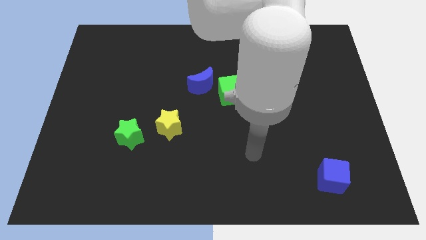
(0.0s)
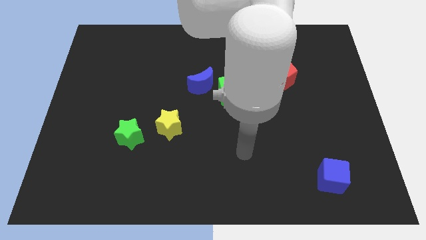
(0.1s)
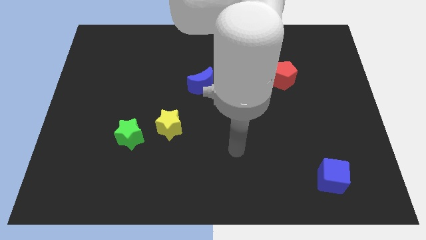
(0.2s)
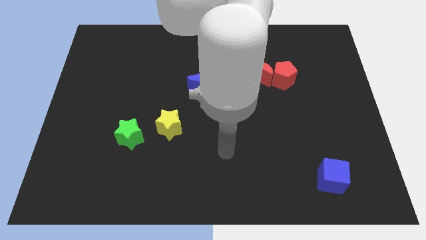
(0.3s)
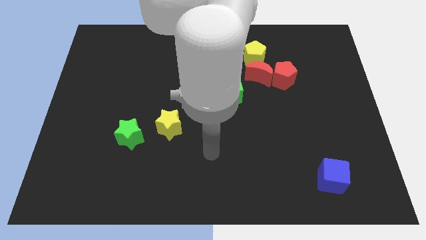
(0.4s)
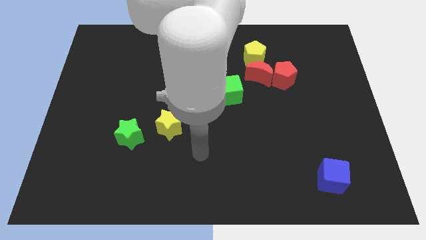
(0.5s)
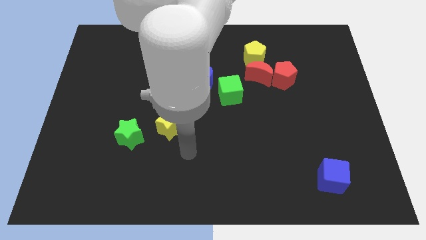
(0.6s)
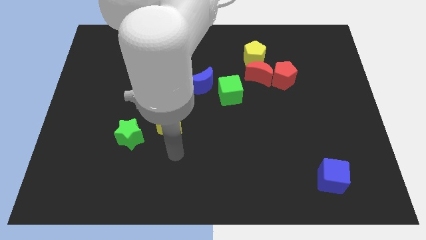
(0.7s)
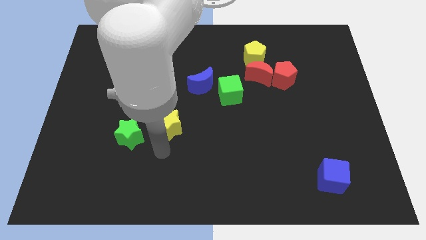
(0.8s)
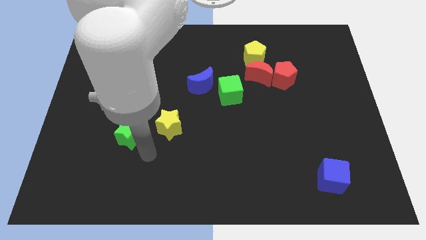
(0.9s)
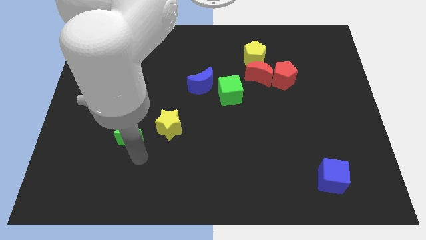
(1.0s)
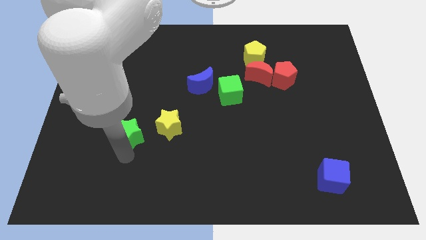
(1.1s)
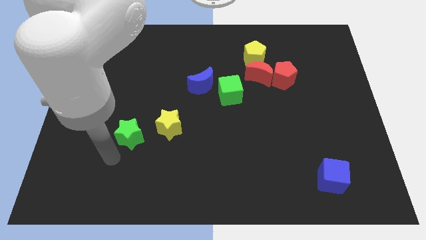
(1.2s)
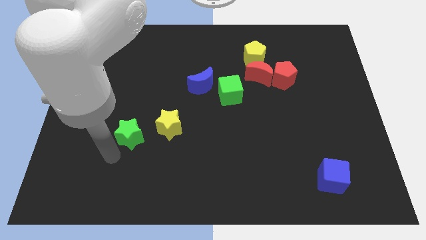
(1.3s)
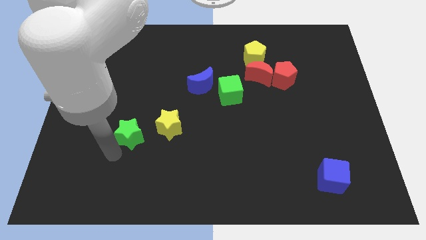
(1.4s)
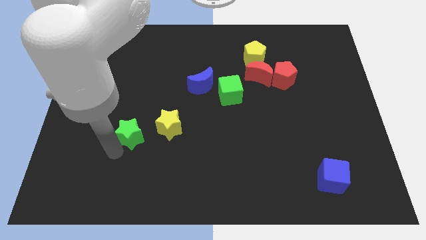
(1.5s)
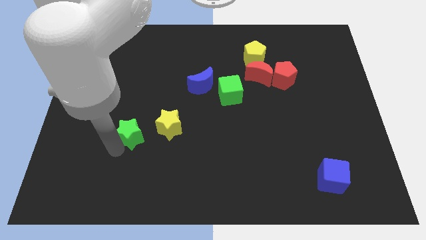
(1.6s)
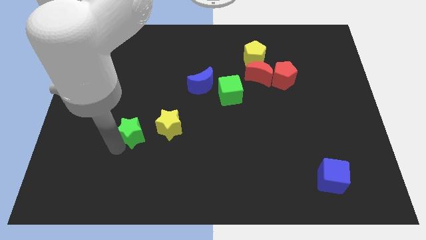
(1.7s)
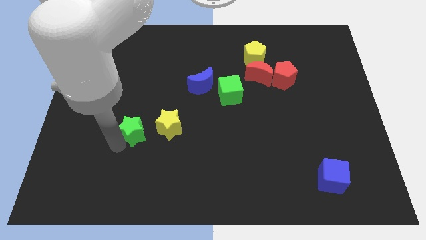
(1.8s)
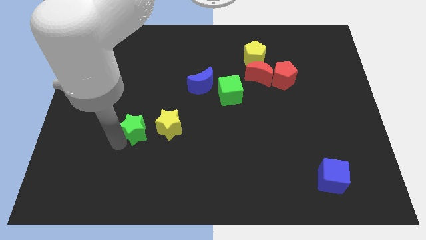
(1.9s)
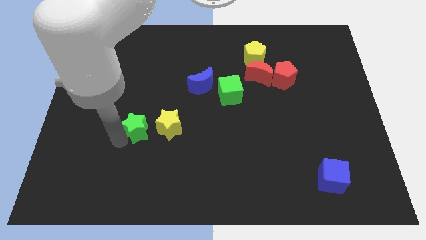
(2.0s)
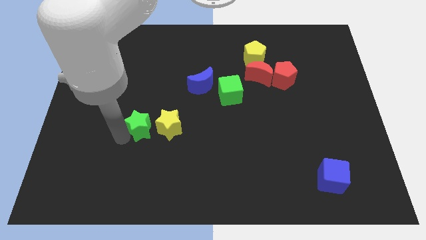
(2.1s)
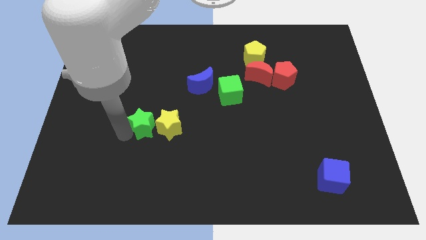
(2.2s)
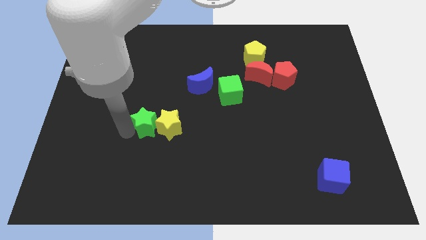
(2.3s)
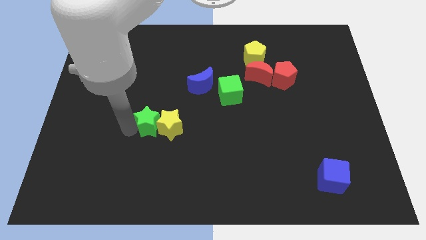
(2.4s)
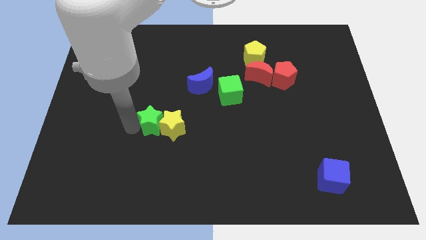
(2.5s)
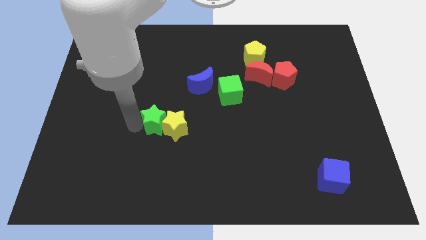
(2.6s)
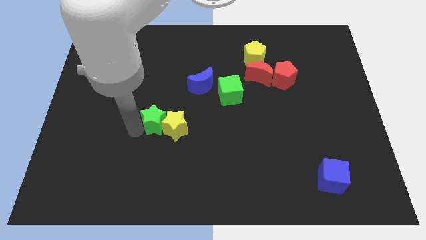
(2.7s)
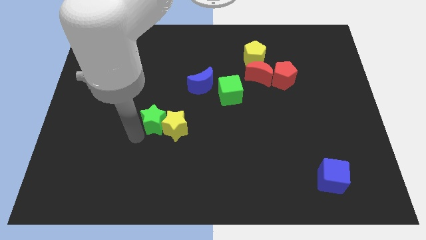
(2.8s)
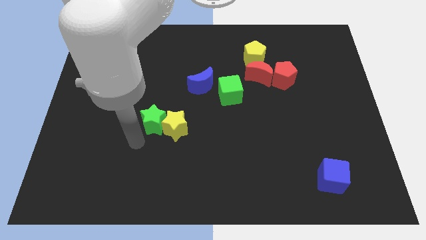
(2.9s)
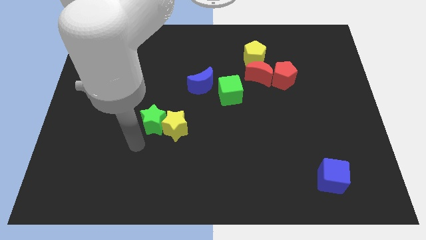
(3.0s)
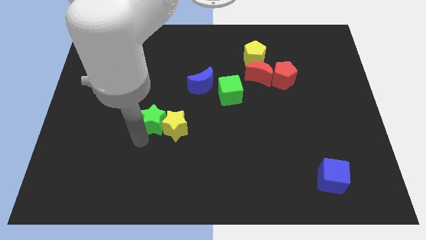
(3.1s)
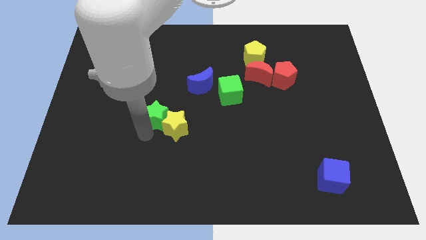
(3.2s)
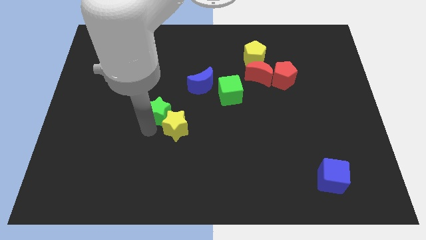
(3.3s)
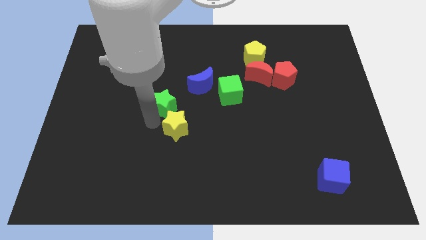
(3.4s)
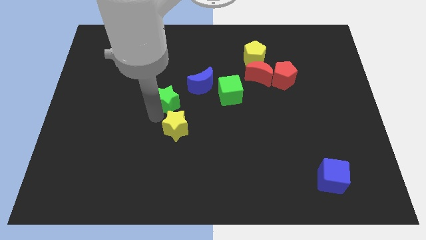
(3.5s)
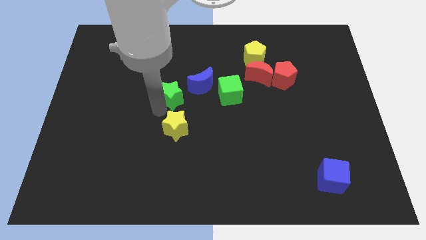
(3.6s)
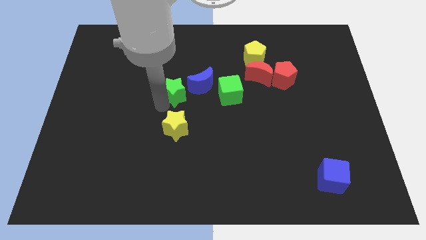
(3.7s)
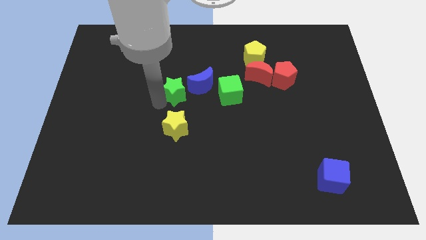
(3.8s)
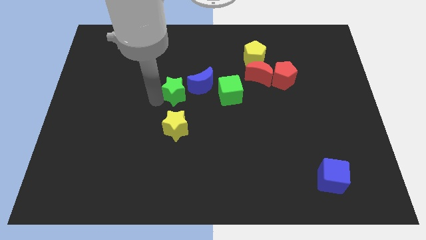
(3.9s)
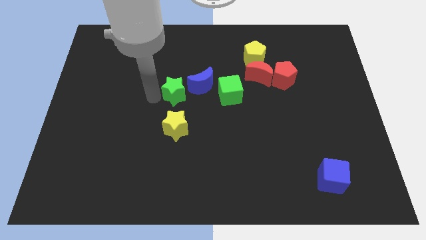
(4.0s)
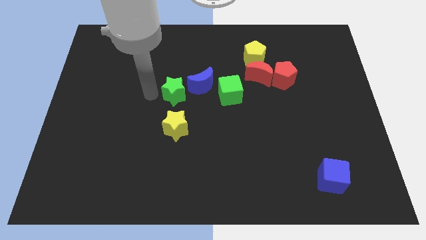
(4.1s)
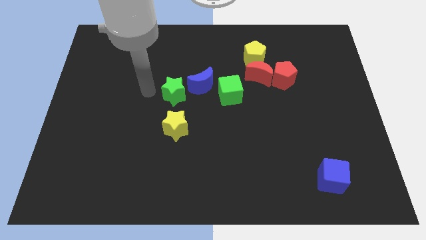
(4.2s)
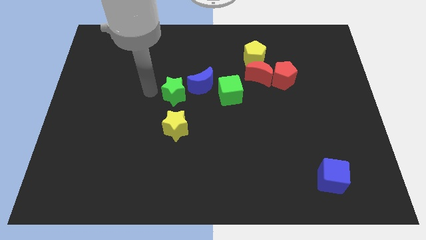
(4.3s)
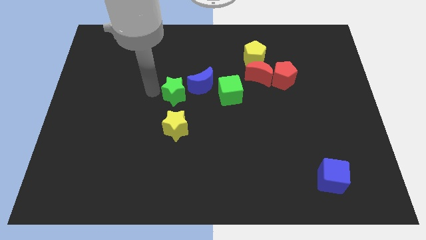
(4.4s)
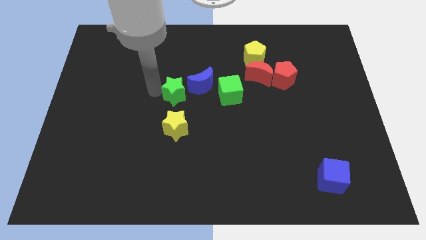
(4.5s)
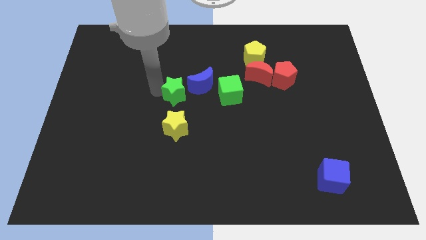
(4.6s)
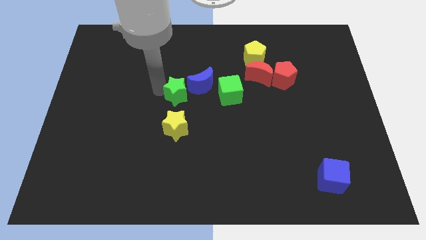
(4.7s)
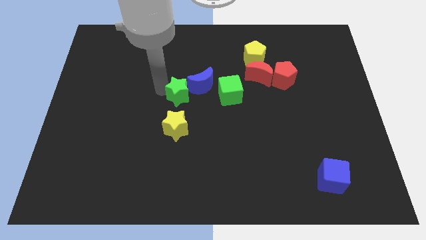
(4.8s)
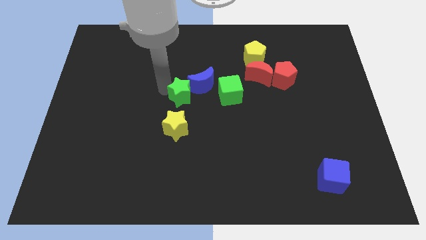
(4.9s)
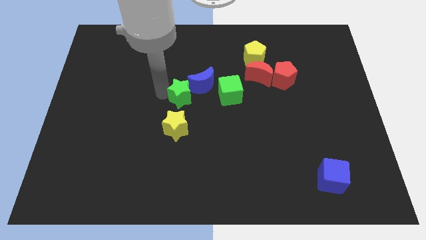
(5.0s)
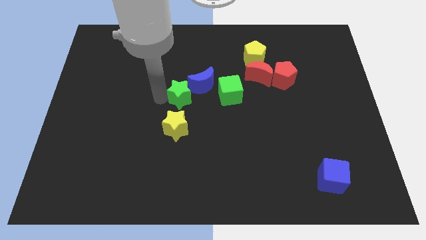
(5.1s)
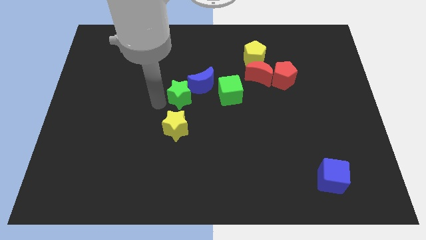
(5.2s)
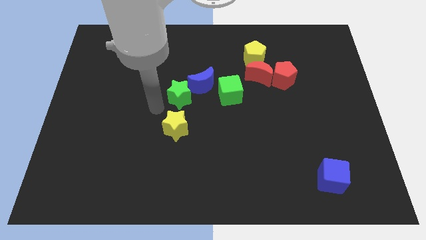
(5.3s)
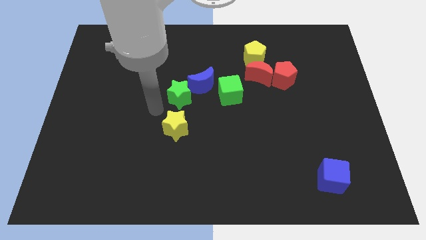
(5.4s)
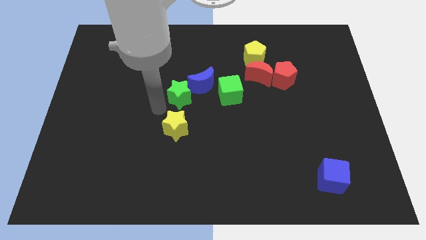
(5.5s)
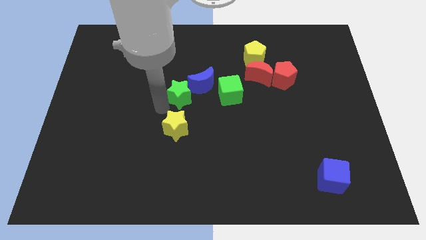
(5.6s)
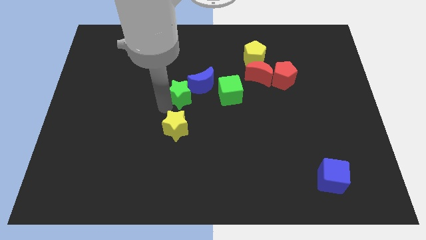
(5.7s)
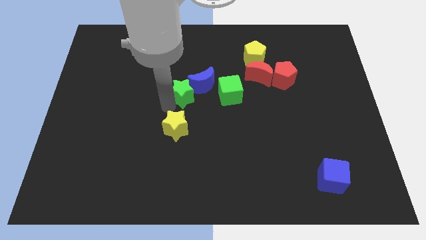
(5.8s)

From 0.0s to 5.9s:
put the green star to the blue moon

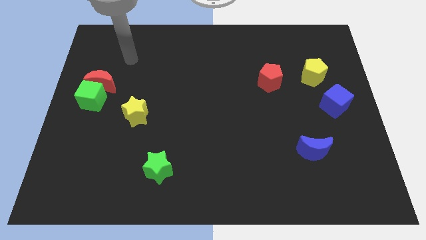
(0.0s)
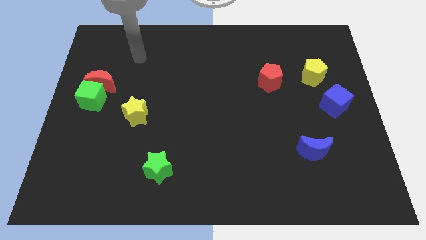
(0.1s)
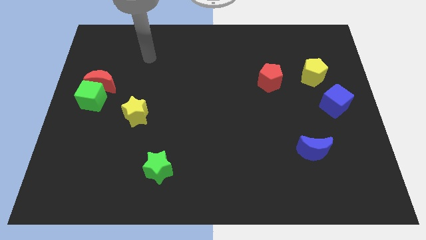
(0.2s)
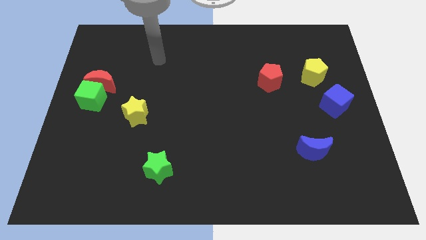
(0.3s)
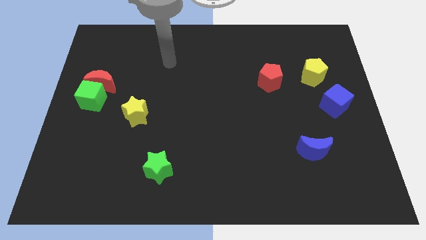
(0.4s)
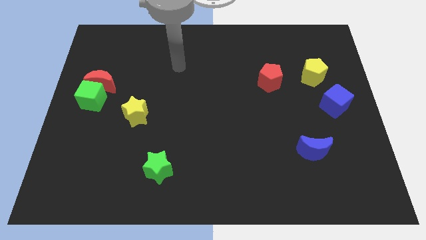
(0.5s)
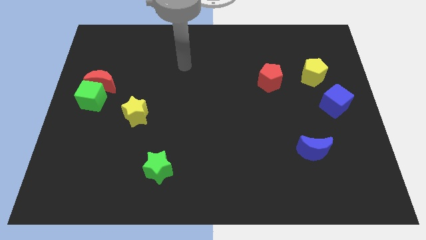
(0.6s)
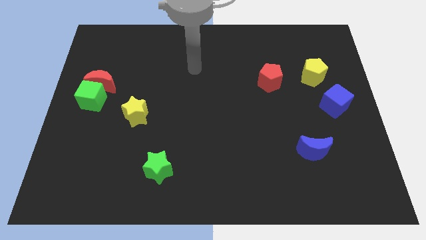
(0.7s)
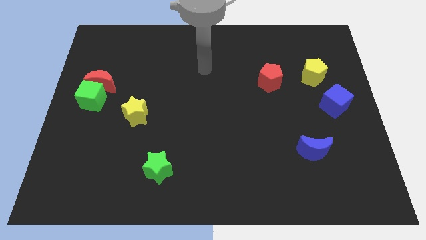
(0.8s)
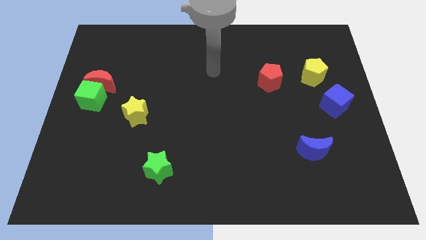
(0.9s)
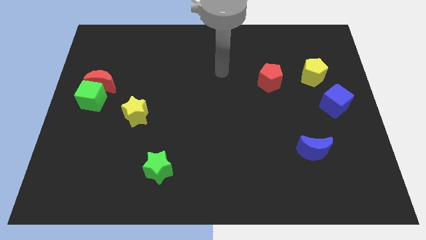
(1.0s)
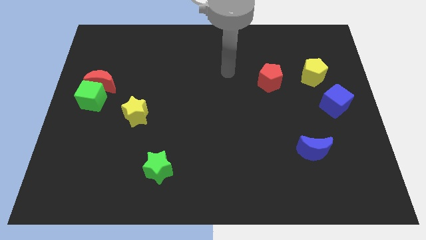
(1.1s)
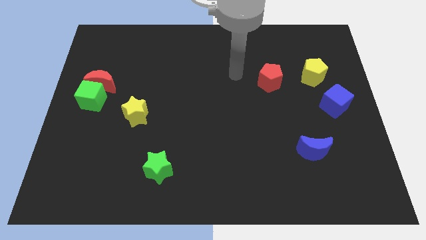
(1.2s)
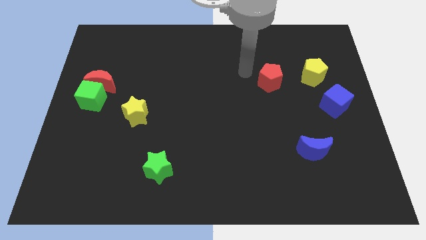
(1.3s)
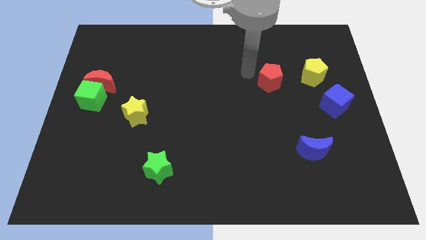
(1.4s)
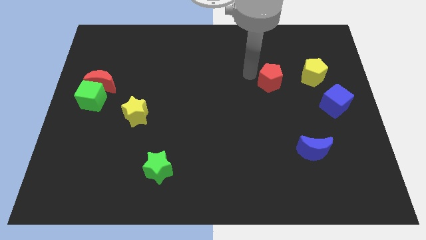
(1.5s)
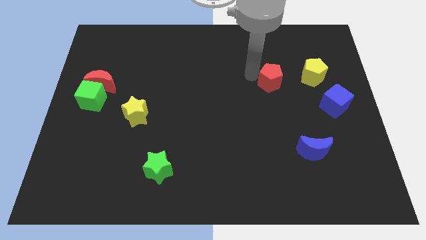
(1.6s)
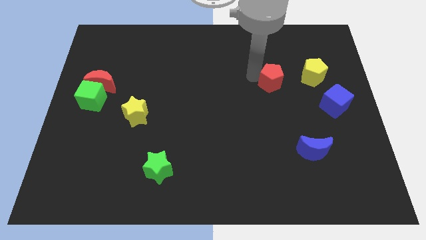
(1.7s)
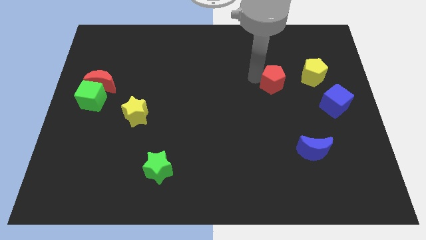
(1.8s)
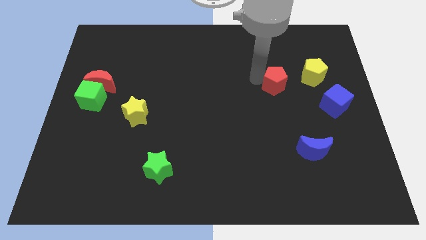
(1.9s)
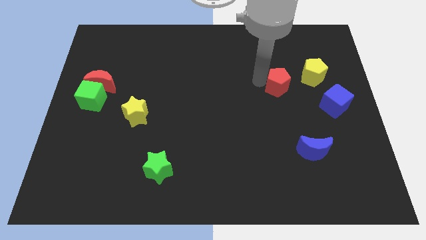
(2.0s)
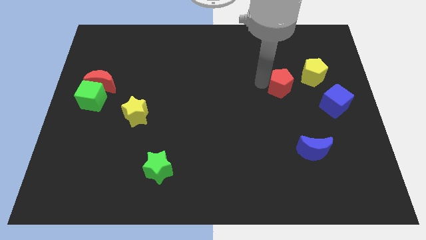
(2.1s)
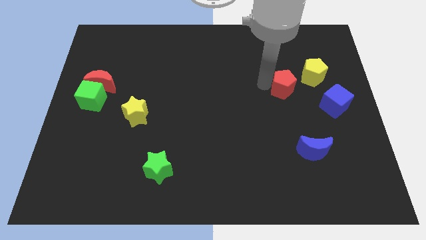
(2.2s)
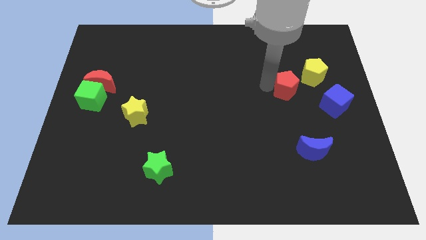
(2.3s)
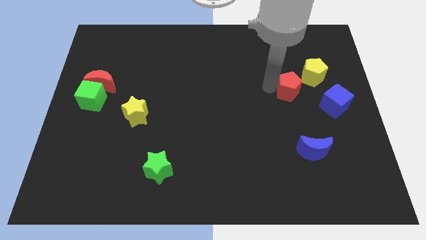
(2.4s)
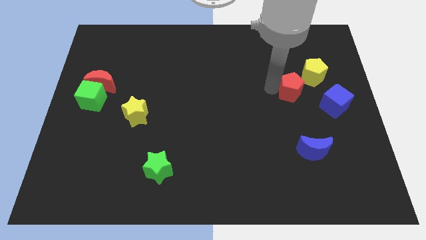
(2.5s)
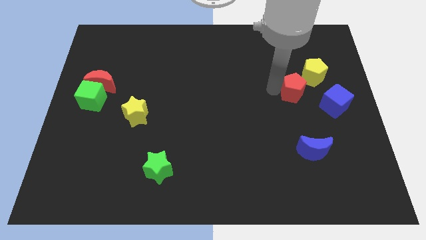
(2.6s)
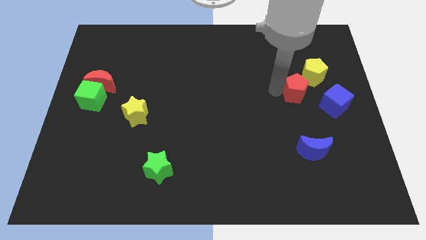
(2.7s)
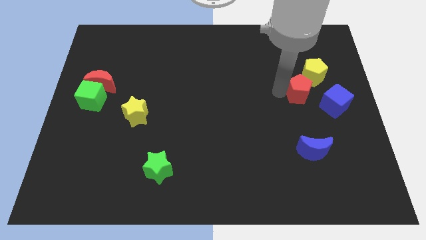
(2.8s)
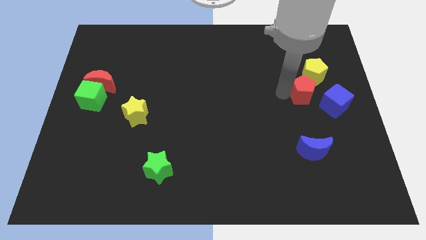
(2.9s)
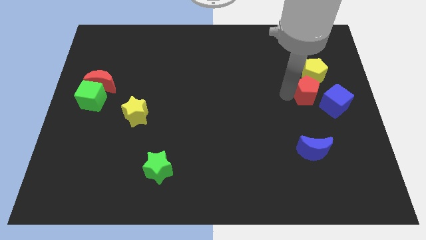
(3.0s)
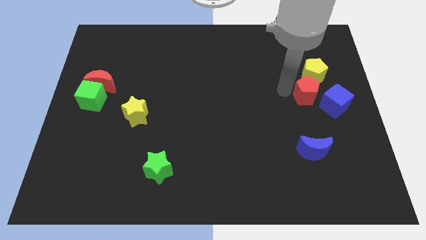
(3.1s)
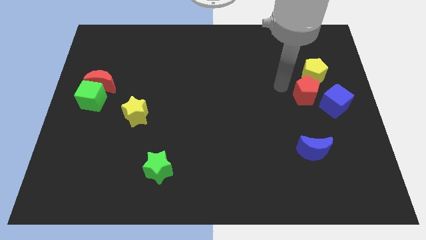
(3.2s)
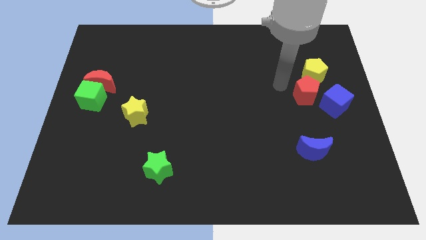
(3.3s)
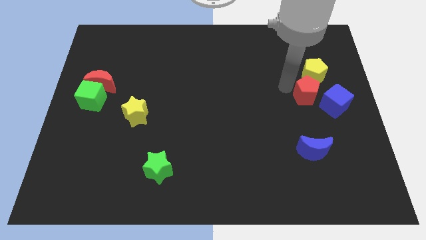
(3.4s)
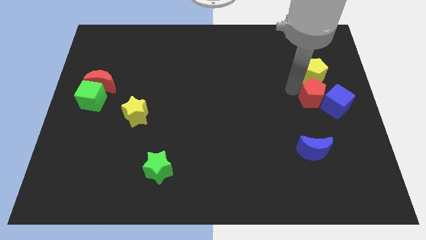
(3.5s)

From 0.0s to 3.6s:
move the red pentagon close to the blue cube
